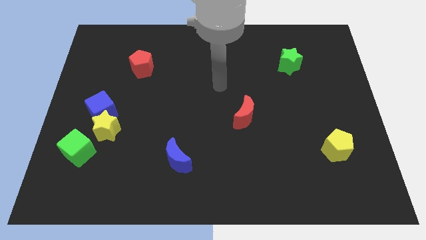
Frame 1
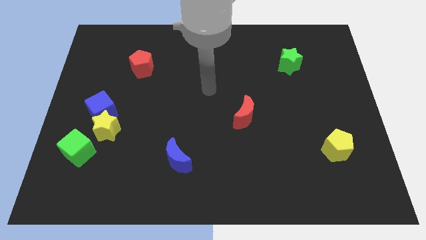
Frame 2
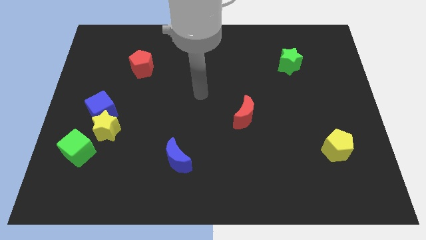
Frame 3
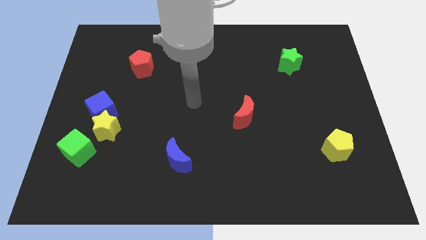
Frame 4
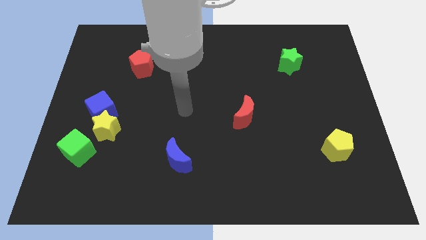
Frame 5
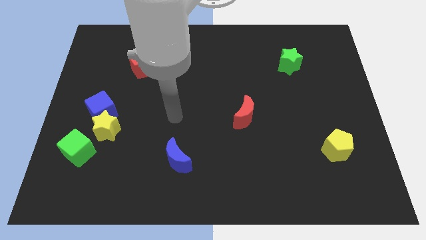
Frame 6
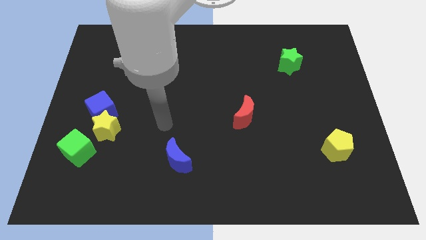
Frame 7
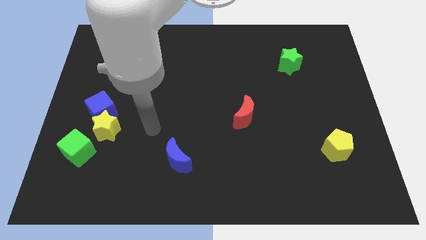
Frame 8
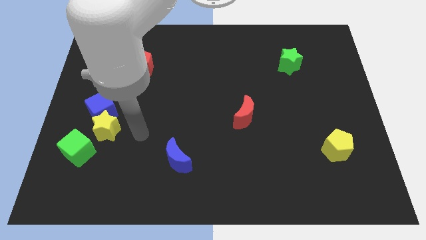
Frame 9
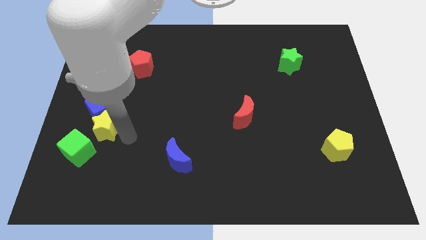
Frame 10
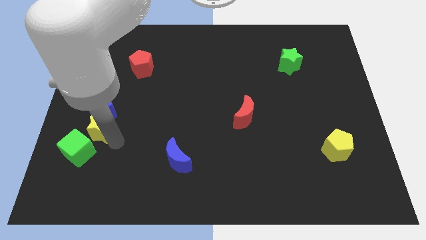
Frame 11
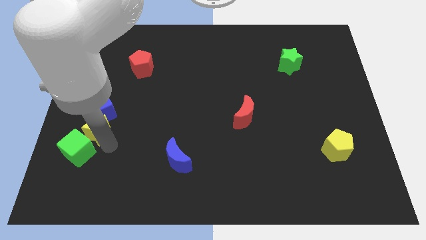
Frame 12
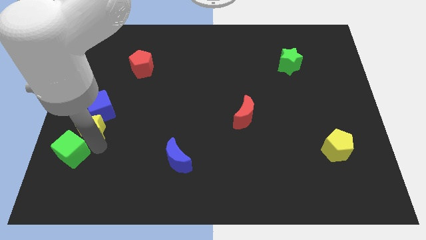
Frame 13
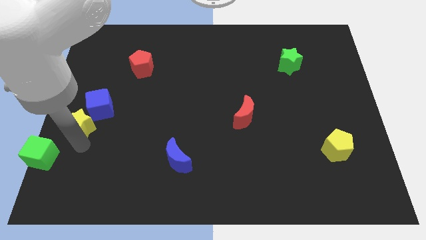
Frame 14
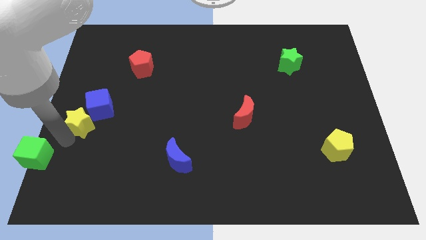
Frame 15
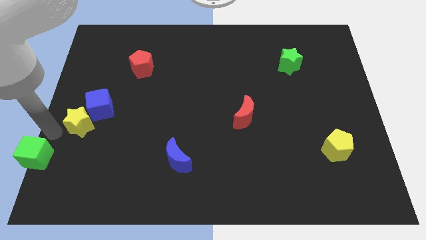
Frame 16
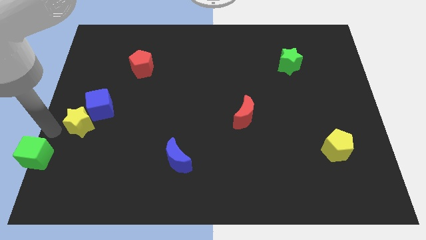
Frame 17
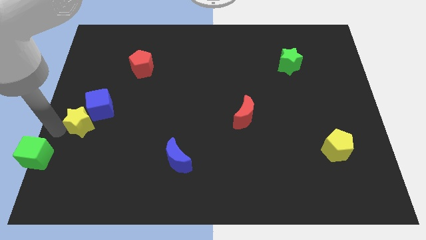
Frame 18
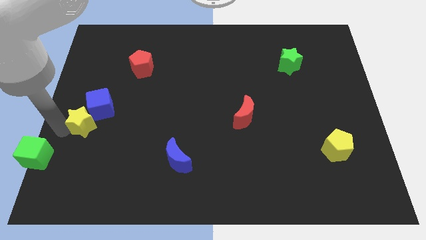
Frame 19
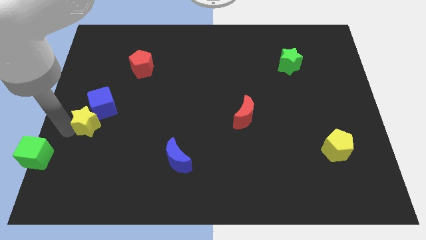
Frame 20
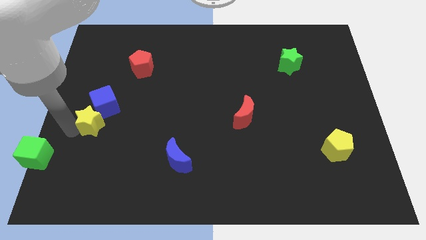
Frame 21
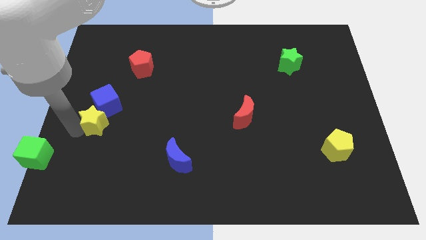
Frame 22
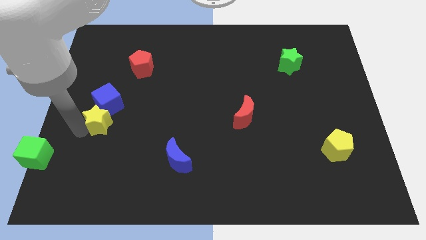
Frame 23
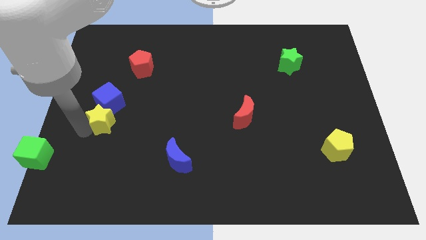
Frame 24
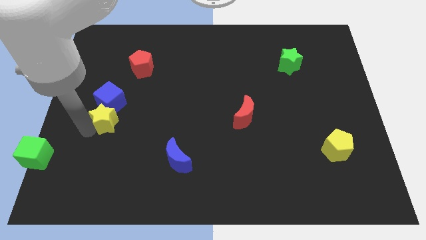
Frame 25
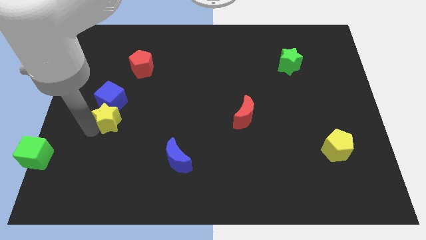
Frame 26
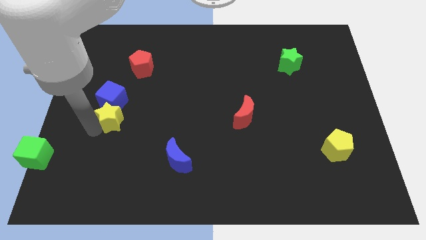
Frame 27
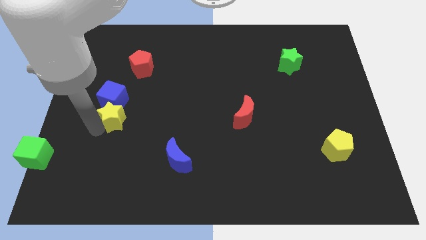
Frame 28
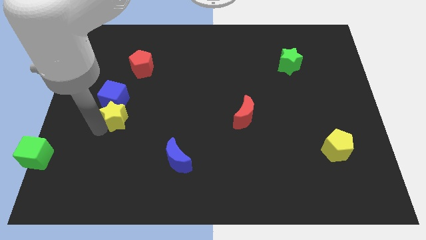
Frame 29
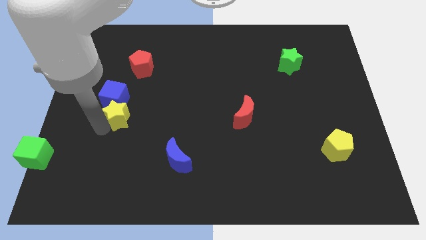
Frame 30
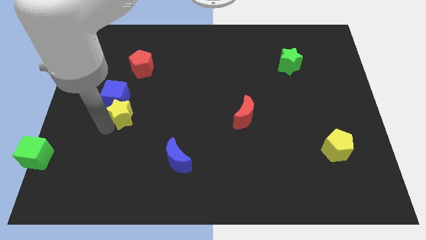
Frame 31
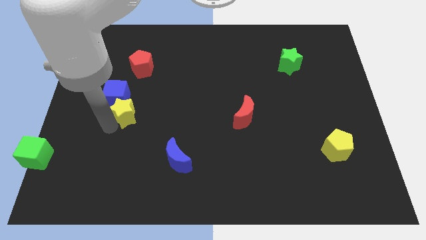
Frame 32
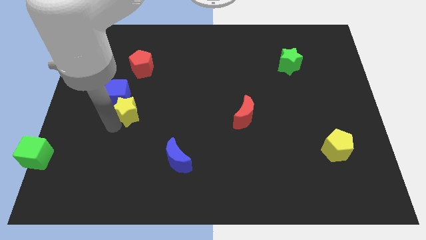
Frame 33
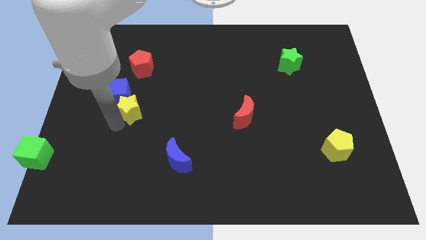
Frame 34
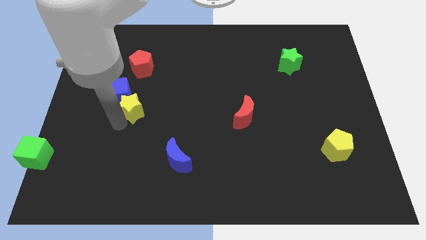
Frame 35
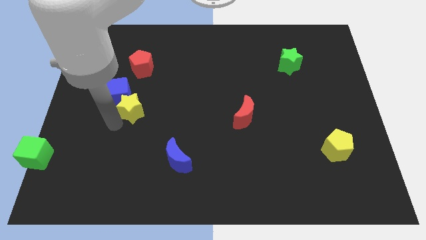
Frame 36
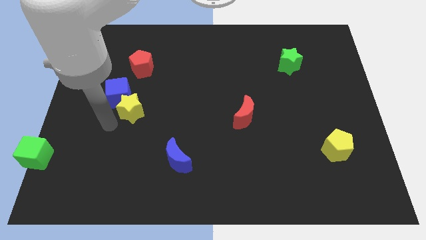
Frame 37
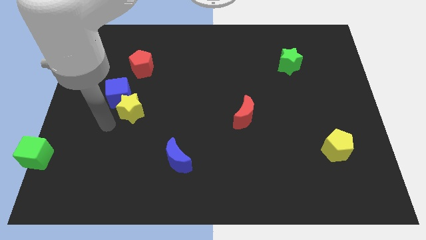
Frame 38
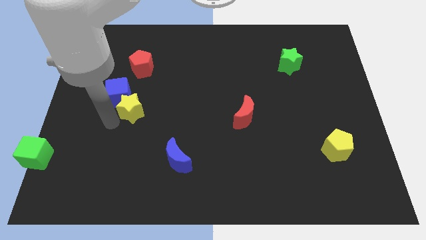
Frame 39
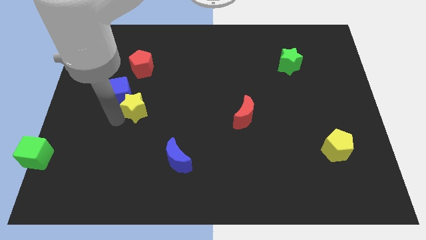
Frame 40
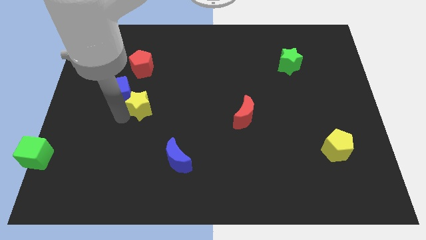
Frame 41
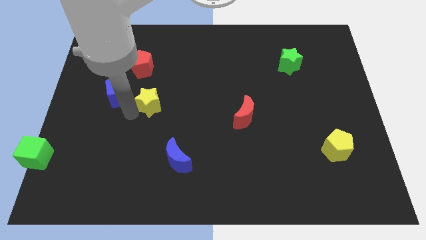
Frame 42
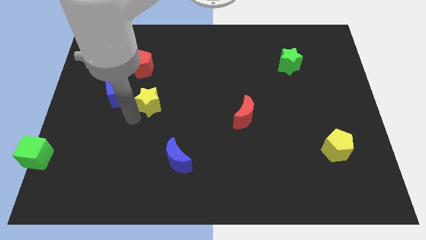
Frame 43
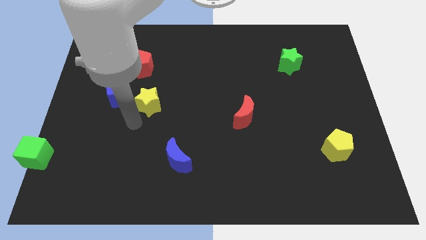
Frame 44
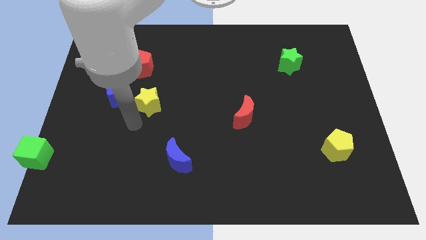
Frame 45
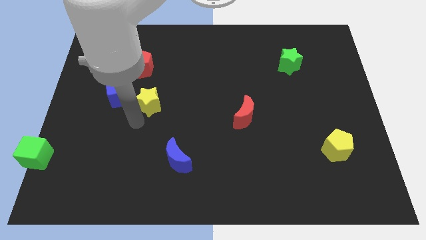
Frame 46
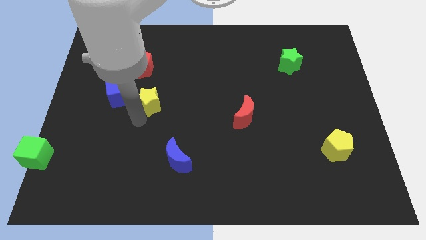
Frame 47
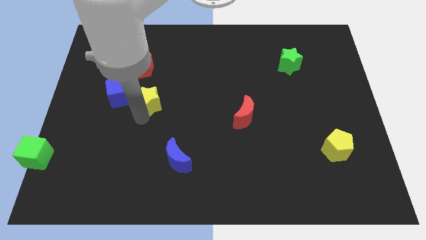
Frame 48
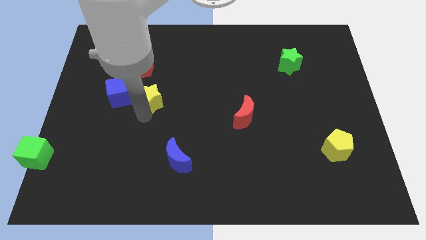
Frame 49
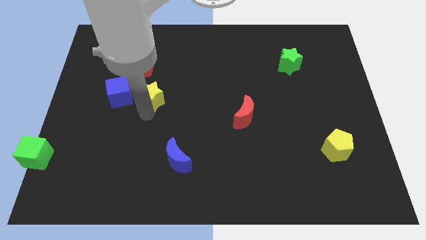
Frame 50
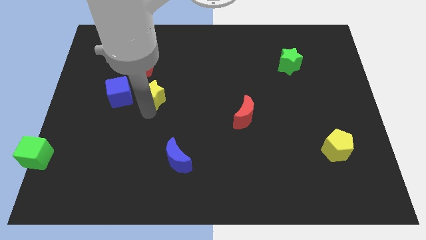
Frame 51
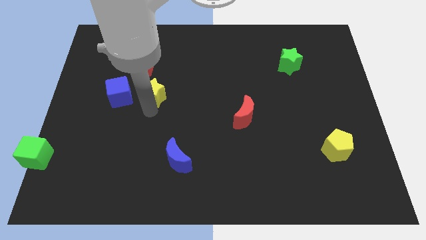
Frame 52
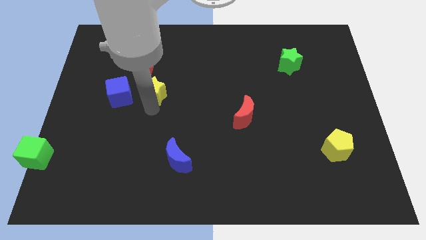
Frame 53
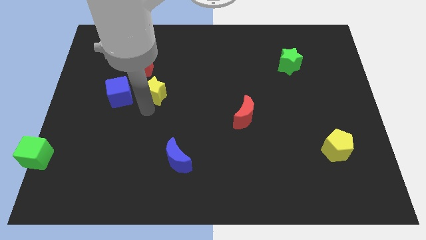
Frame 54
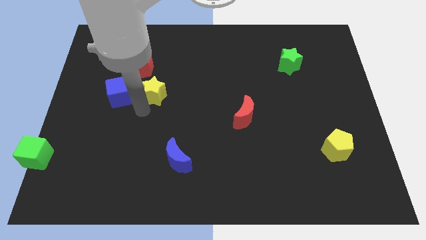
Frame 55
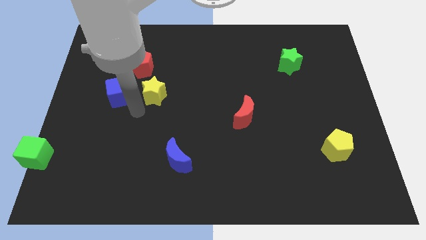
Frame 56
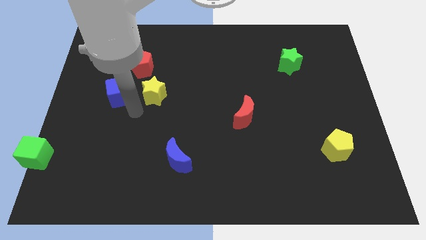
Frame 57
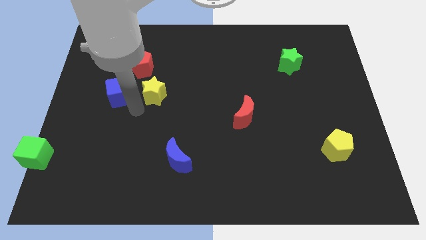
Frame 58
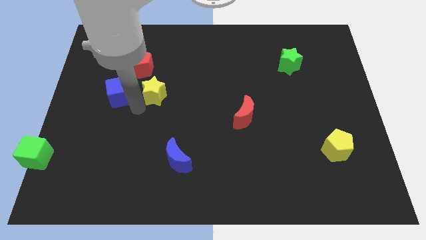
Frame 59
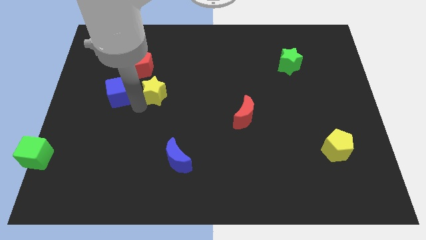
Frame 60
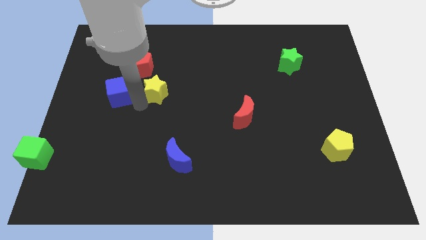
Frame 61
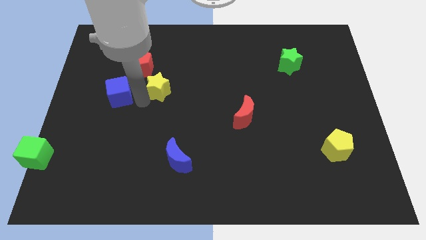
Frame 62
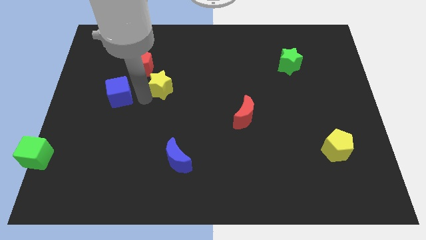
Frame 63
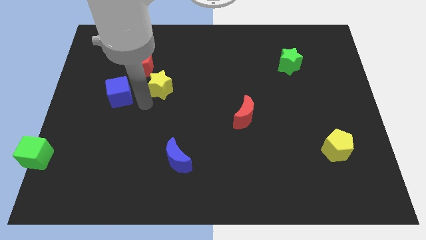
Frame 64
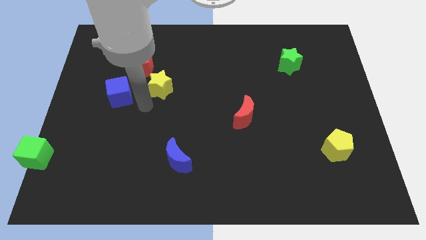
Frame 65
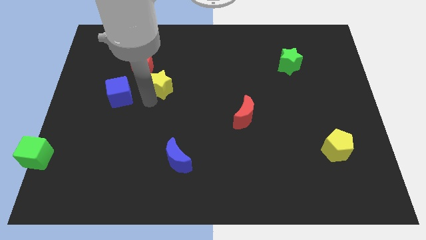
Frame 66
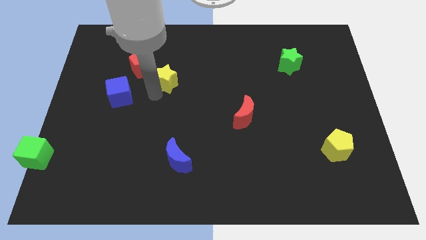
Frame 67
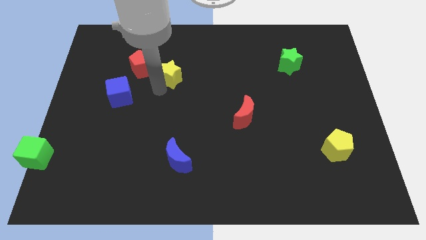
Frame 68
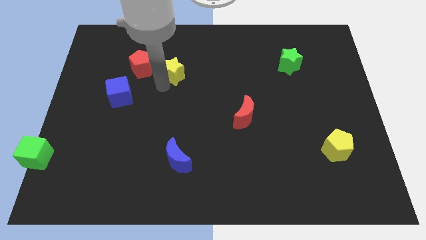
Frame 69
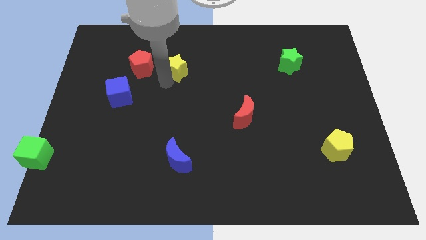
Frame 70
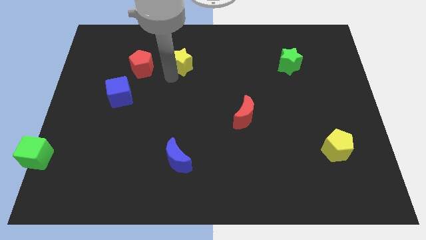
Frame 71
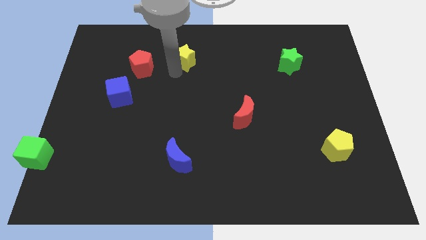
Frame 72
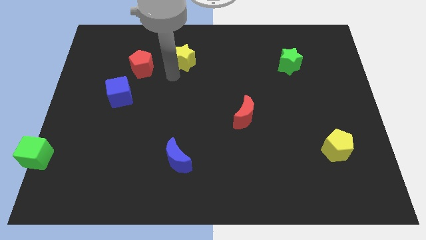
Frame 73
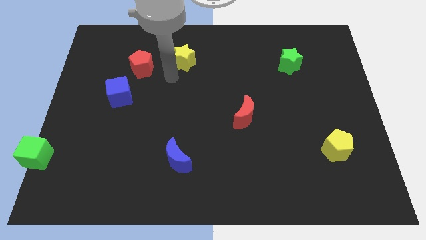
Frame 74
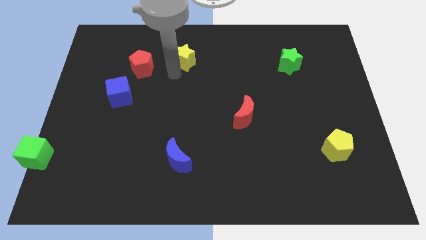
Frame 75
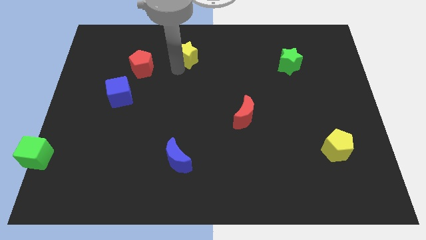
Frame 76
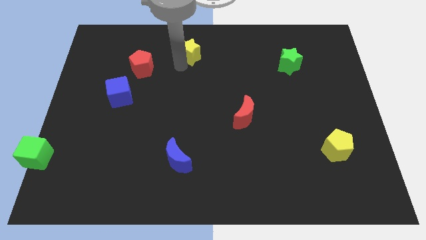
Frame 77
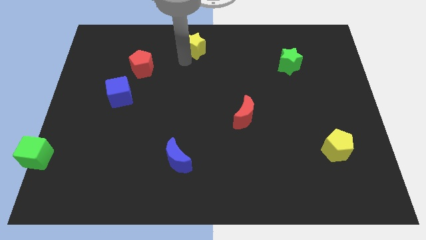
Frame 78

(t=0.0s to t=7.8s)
put the yellow star to the towards your base
